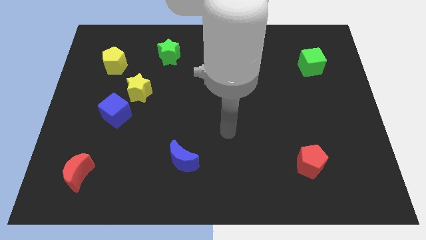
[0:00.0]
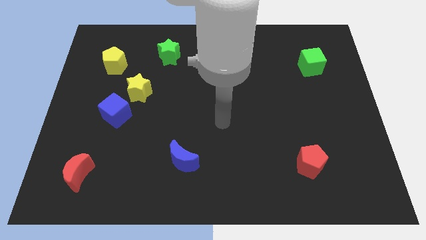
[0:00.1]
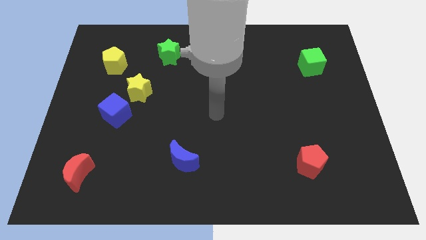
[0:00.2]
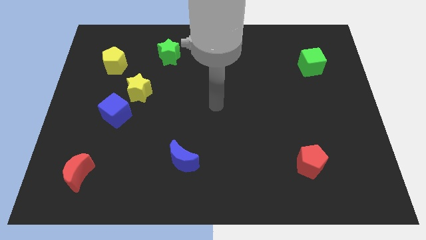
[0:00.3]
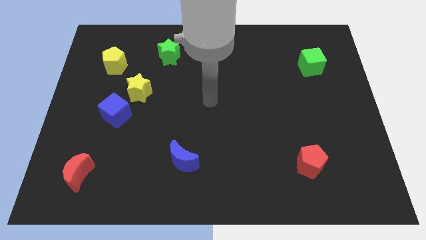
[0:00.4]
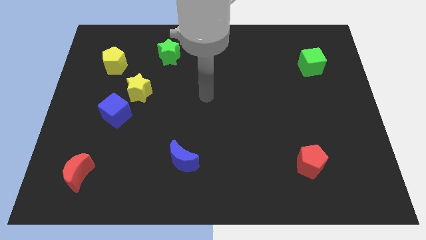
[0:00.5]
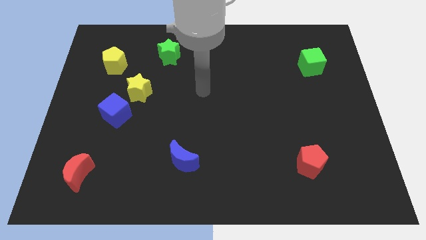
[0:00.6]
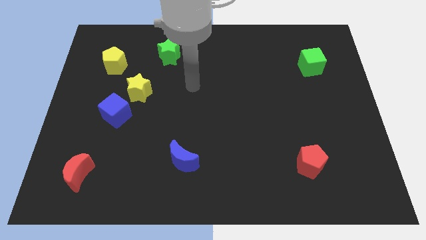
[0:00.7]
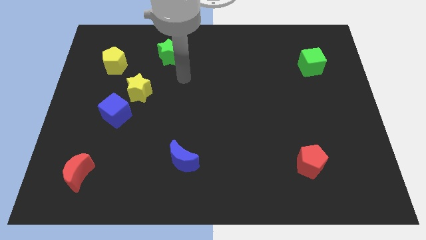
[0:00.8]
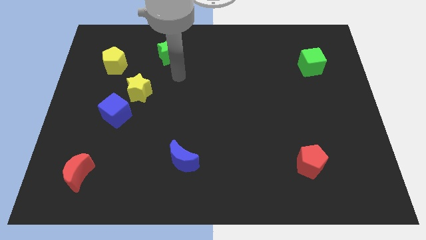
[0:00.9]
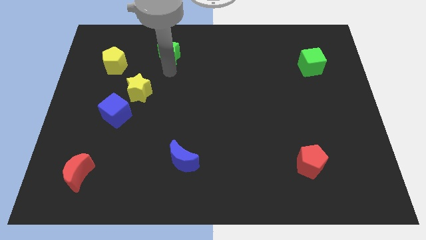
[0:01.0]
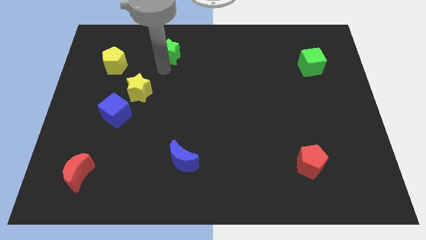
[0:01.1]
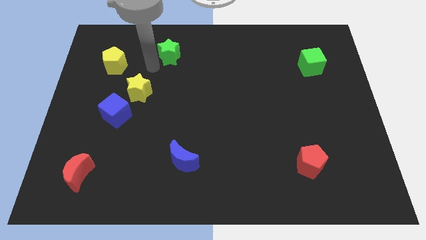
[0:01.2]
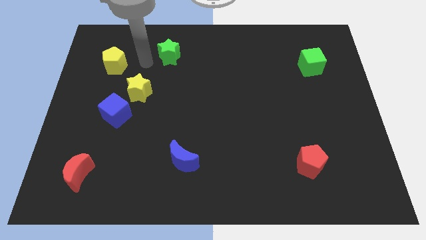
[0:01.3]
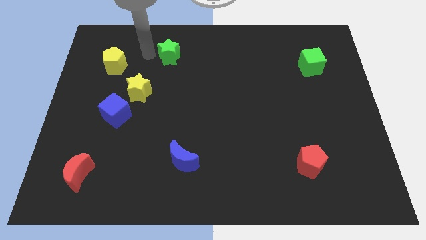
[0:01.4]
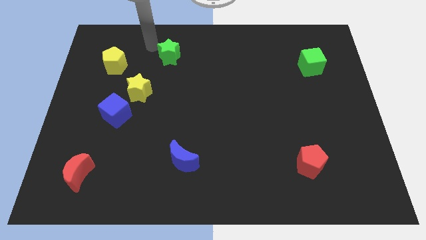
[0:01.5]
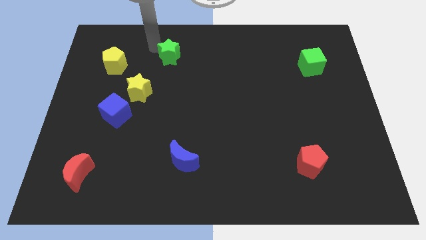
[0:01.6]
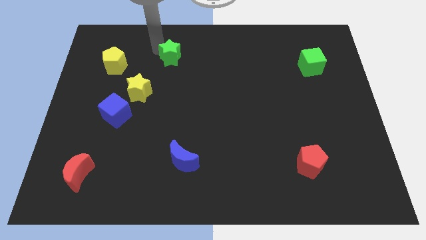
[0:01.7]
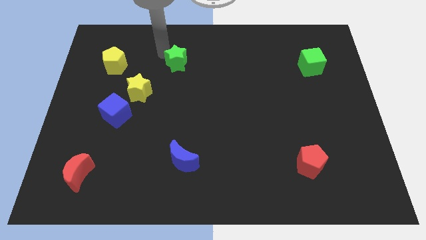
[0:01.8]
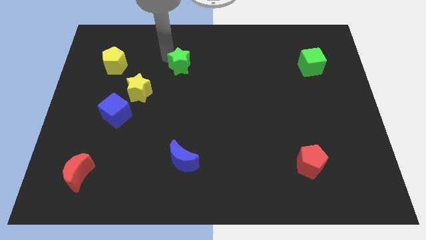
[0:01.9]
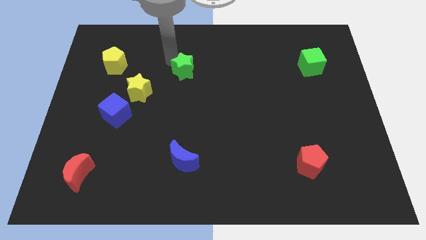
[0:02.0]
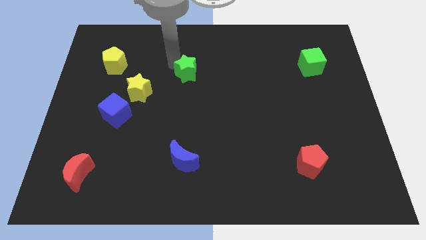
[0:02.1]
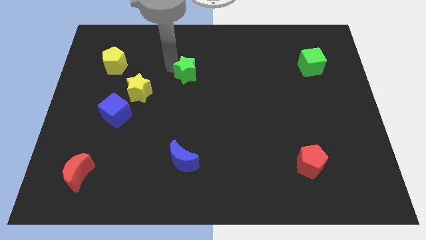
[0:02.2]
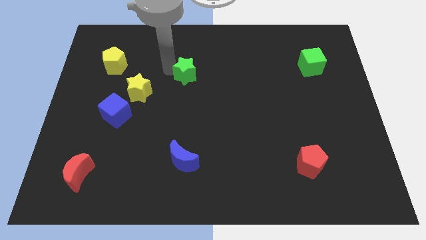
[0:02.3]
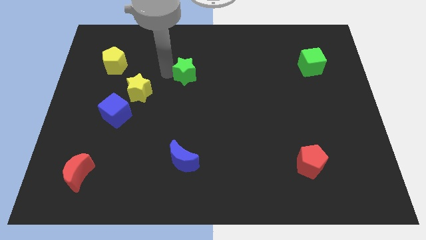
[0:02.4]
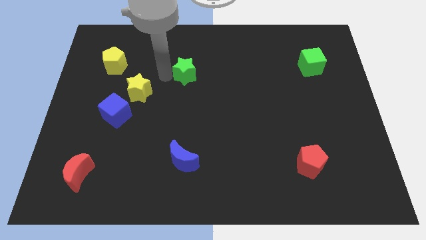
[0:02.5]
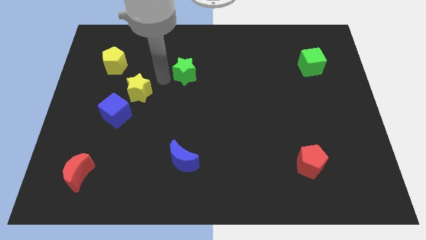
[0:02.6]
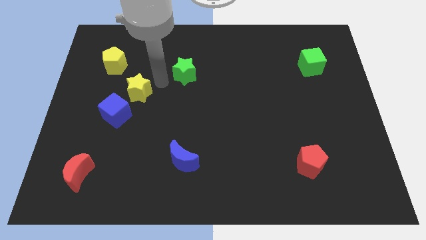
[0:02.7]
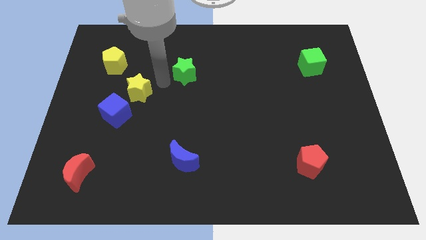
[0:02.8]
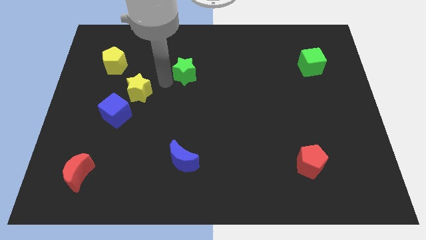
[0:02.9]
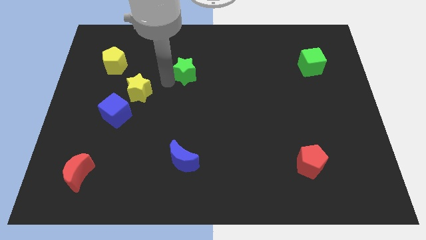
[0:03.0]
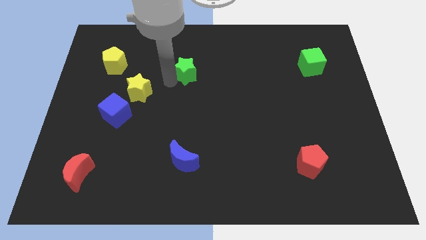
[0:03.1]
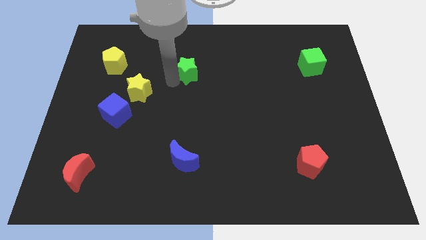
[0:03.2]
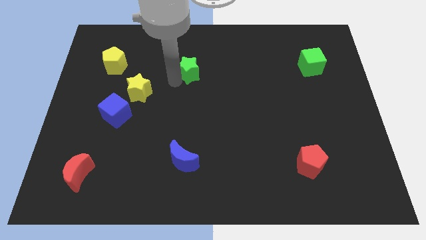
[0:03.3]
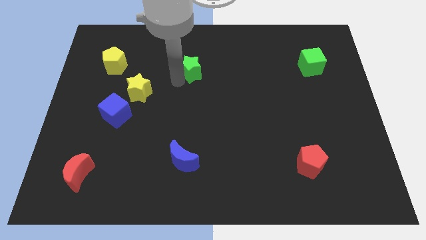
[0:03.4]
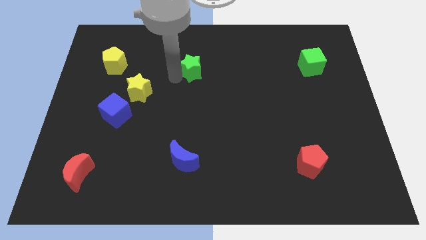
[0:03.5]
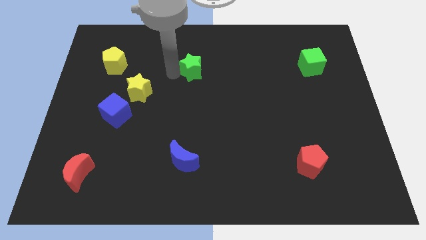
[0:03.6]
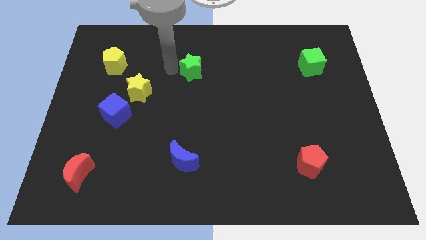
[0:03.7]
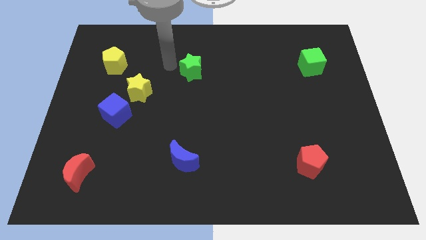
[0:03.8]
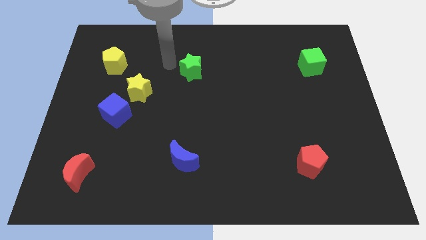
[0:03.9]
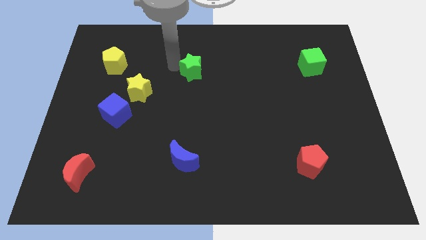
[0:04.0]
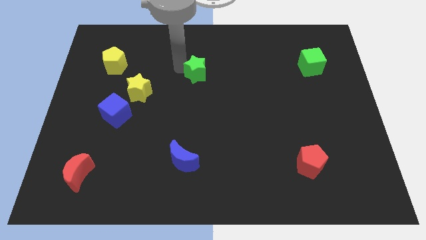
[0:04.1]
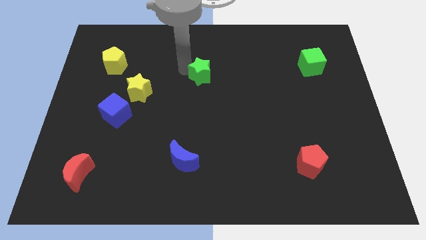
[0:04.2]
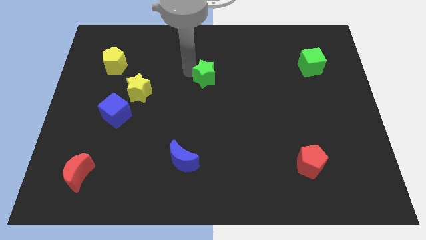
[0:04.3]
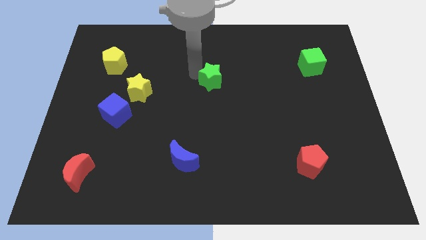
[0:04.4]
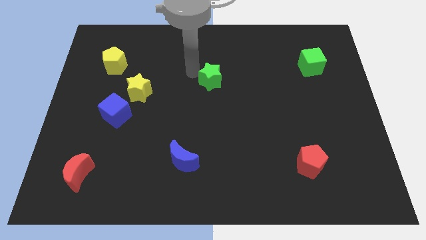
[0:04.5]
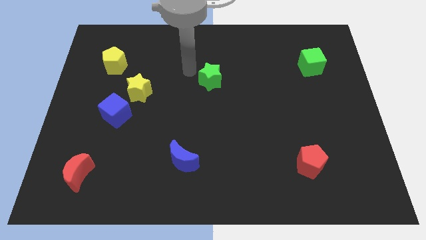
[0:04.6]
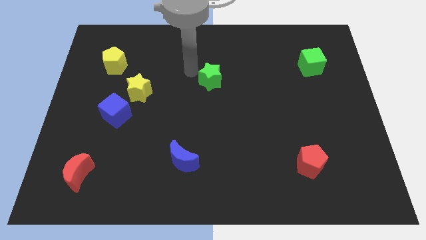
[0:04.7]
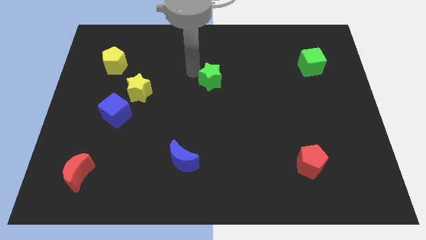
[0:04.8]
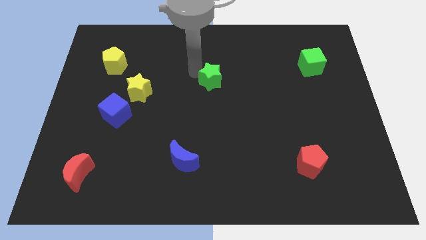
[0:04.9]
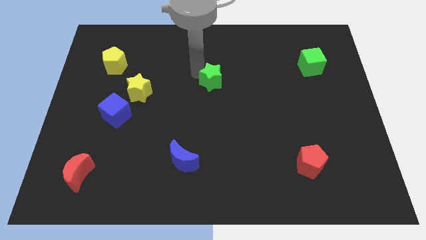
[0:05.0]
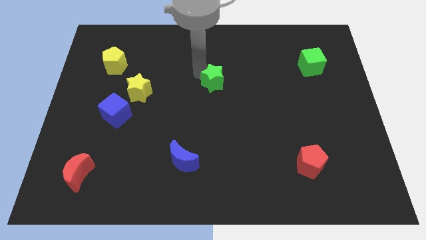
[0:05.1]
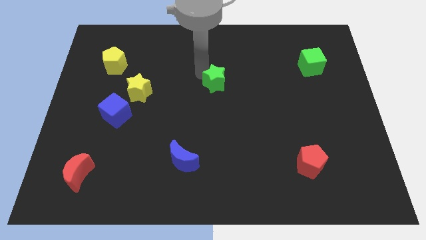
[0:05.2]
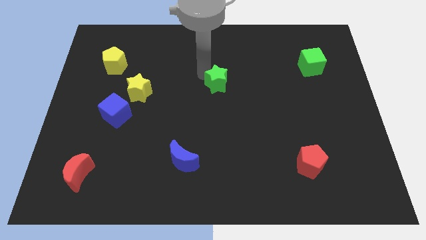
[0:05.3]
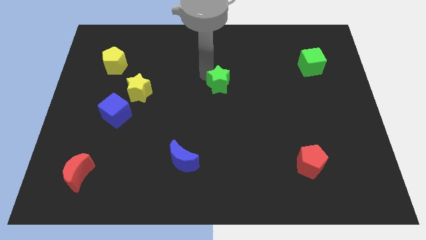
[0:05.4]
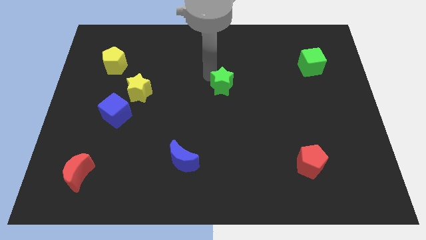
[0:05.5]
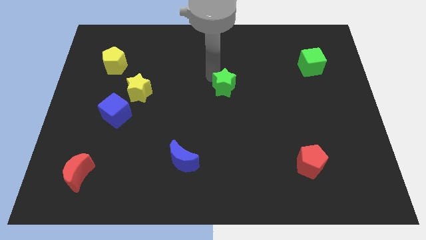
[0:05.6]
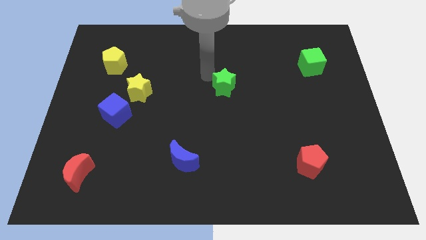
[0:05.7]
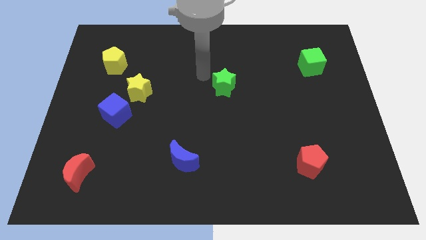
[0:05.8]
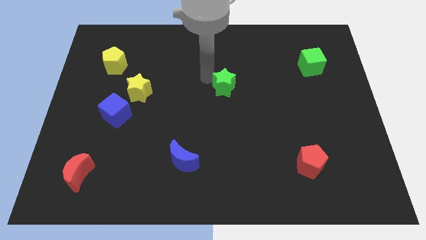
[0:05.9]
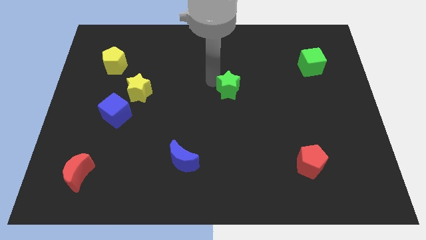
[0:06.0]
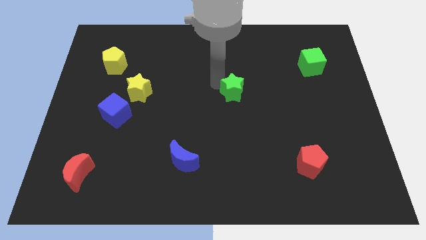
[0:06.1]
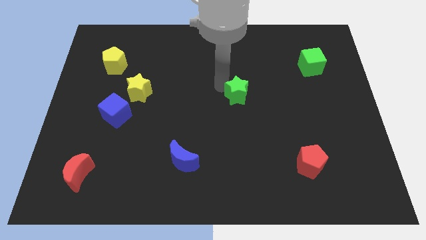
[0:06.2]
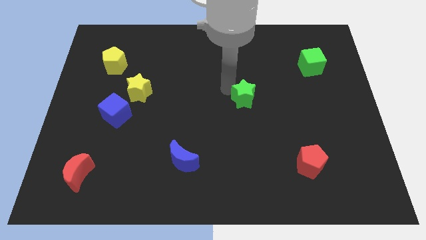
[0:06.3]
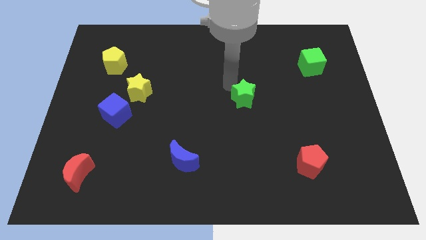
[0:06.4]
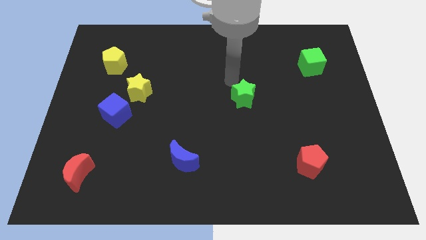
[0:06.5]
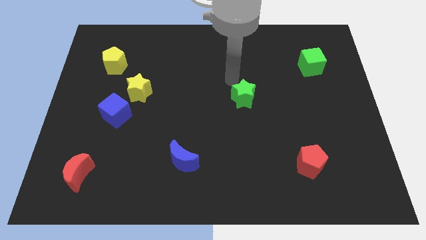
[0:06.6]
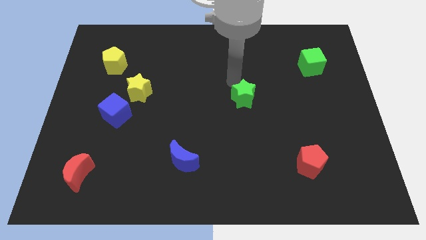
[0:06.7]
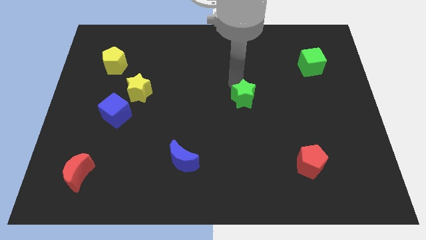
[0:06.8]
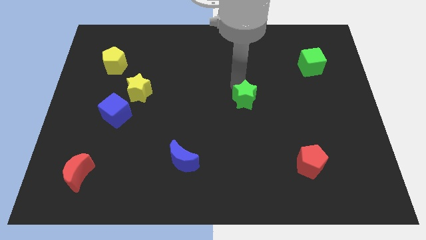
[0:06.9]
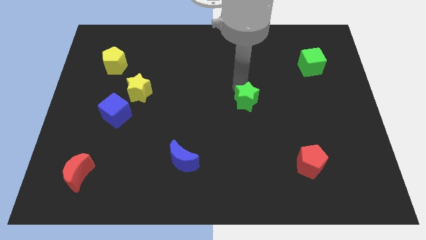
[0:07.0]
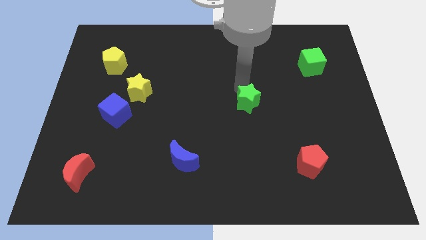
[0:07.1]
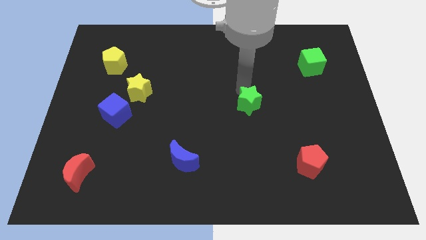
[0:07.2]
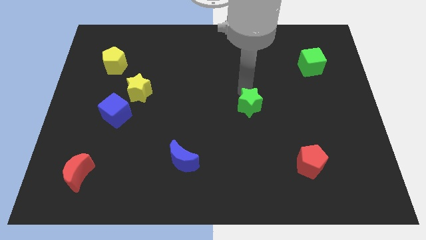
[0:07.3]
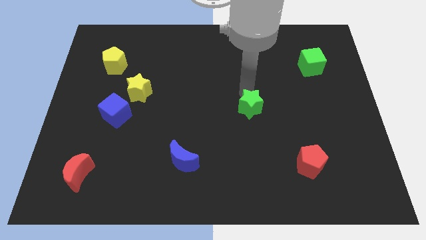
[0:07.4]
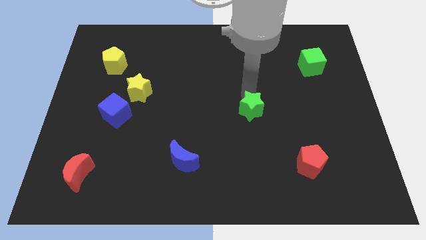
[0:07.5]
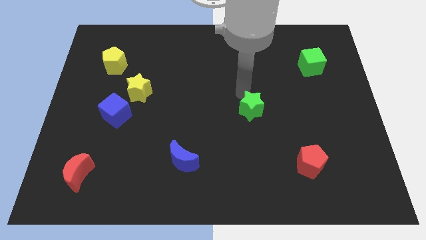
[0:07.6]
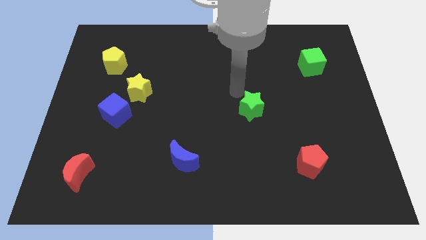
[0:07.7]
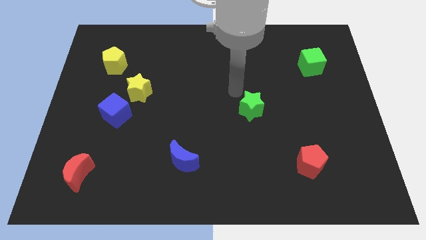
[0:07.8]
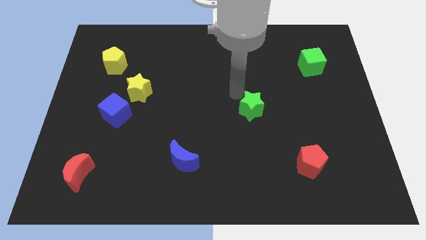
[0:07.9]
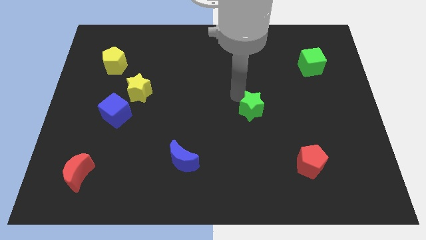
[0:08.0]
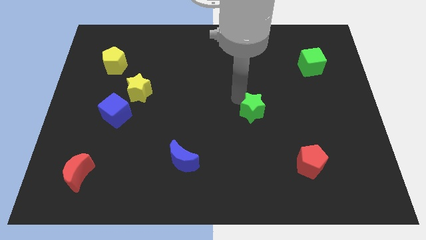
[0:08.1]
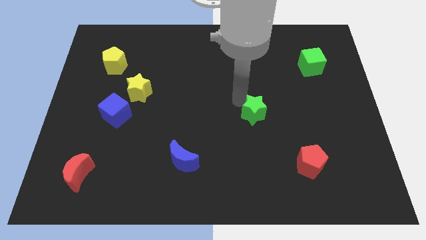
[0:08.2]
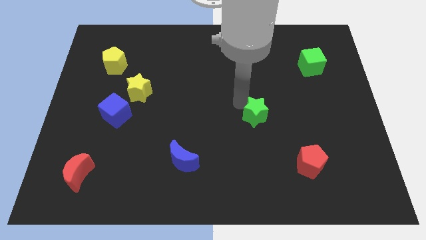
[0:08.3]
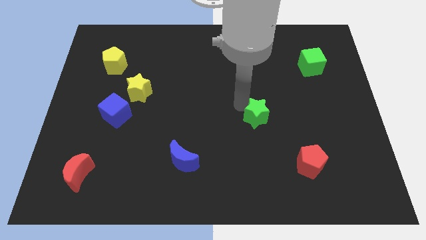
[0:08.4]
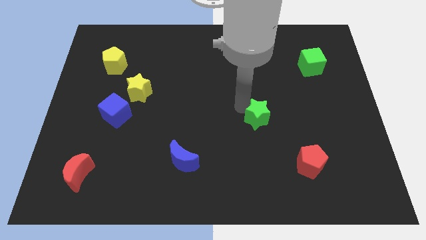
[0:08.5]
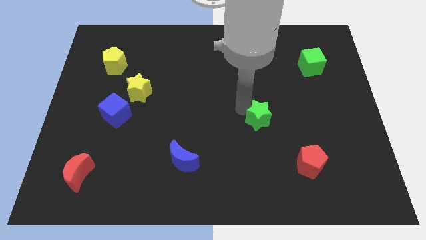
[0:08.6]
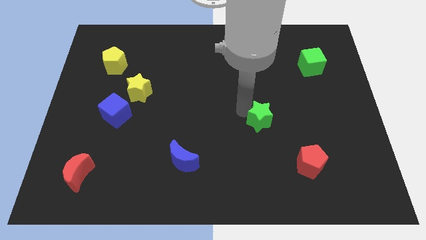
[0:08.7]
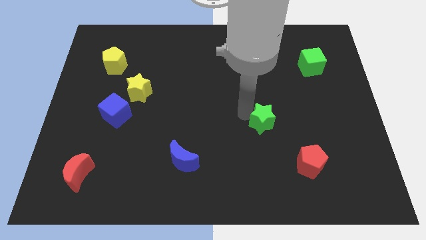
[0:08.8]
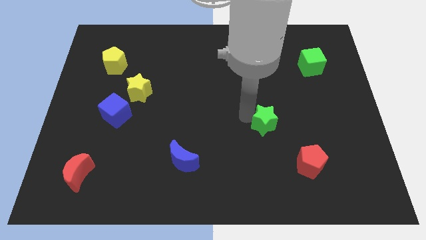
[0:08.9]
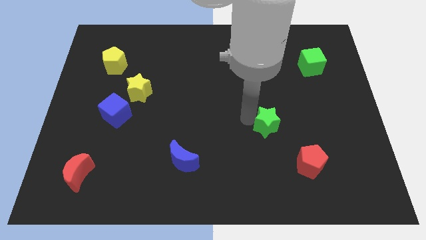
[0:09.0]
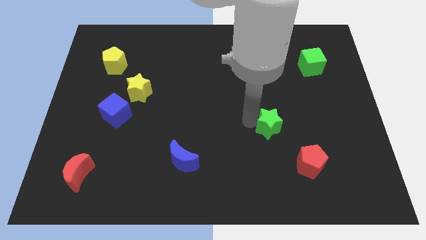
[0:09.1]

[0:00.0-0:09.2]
push the green star to the top left side of the red pentagon
